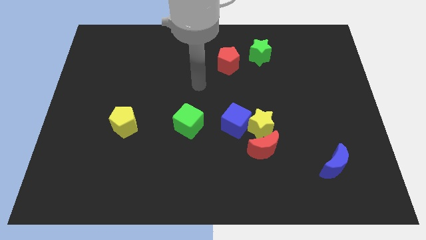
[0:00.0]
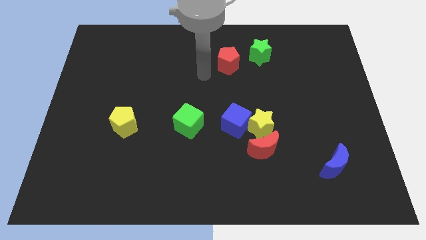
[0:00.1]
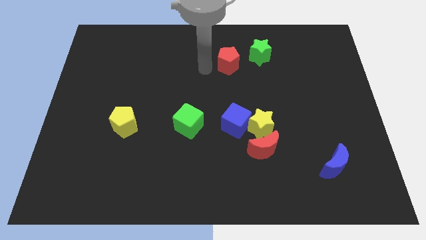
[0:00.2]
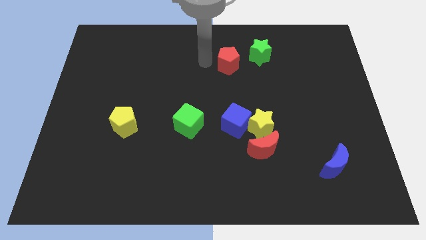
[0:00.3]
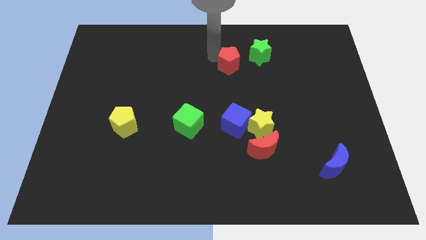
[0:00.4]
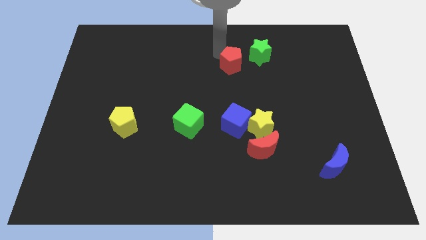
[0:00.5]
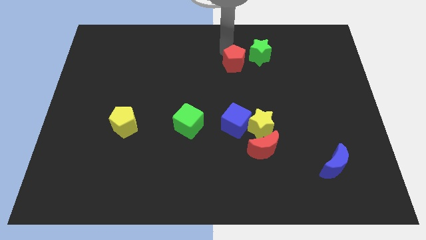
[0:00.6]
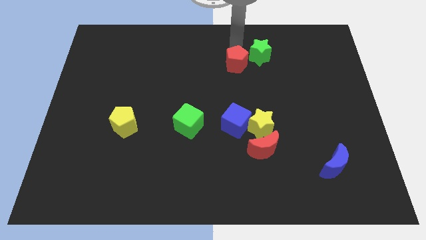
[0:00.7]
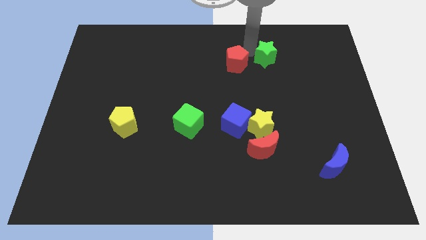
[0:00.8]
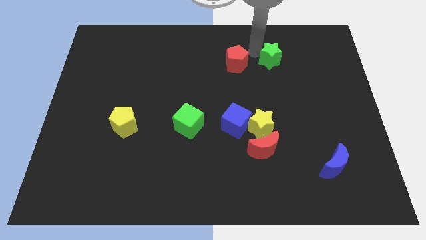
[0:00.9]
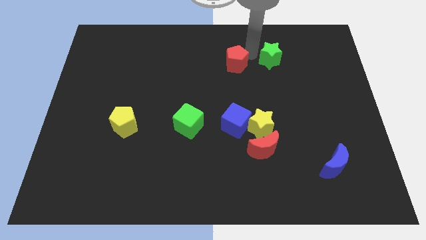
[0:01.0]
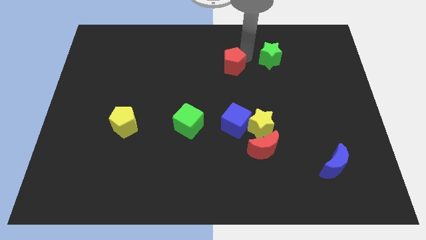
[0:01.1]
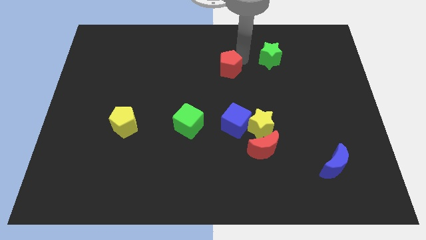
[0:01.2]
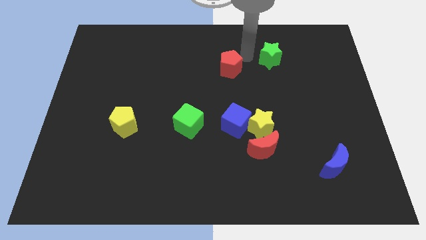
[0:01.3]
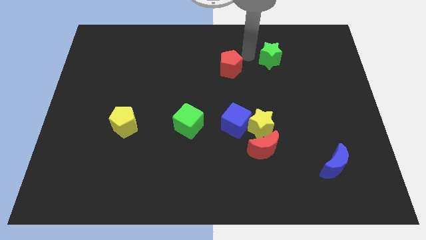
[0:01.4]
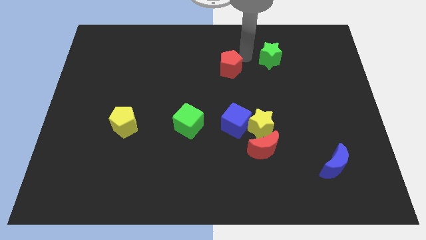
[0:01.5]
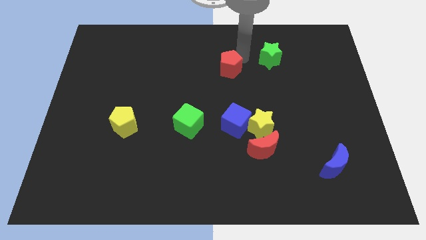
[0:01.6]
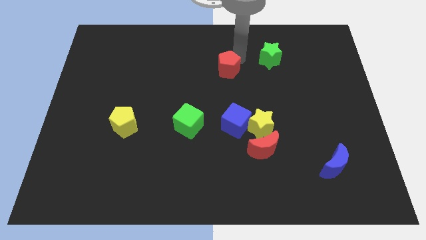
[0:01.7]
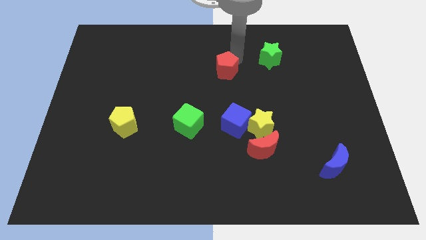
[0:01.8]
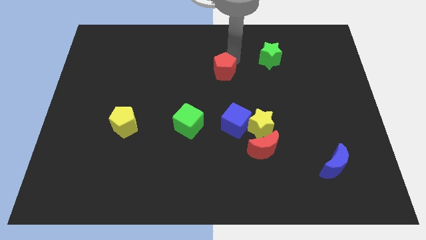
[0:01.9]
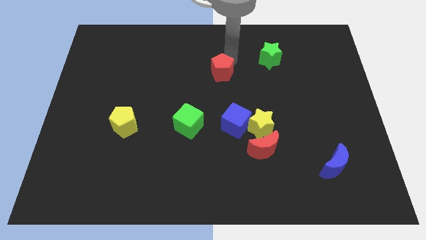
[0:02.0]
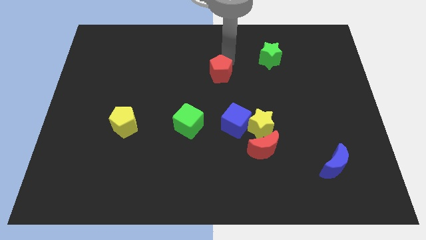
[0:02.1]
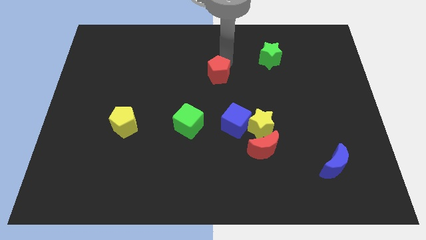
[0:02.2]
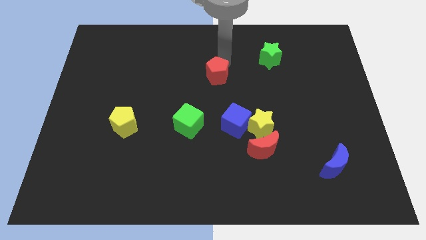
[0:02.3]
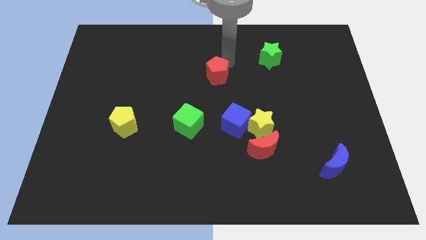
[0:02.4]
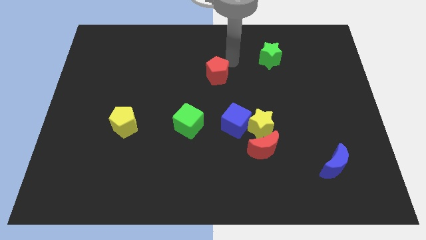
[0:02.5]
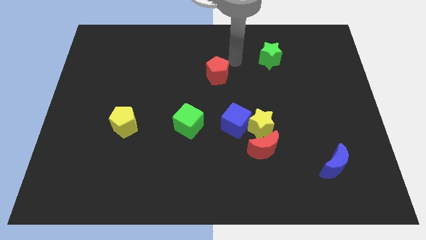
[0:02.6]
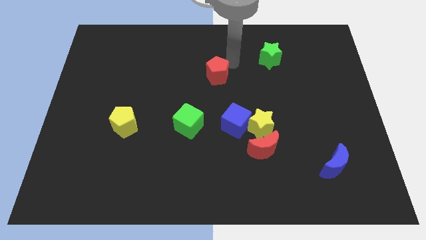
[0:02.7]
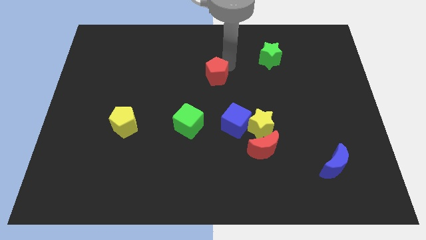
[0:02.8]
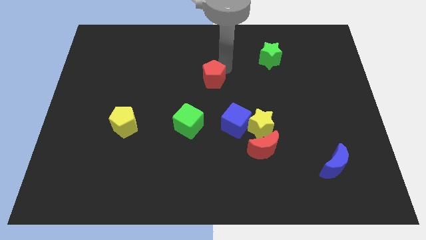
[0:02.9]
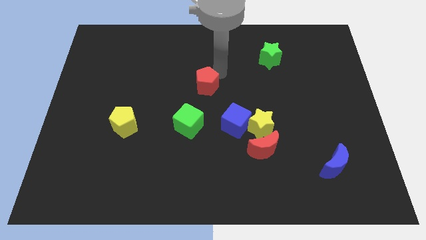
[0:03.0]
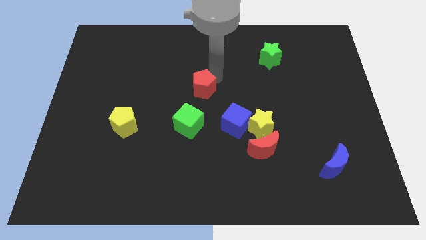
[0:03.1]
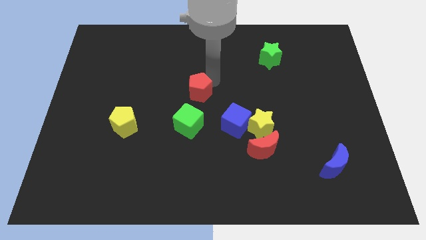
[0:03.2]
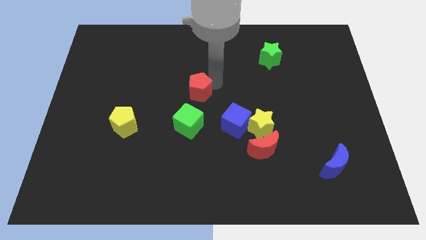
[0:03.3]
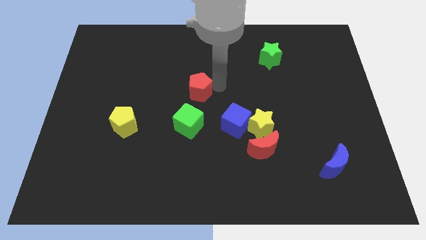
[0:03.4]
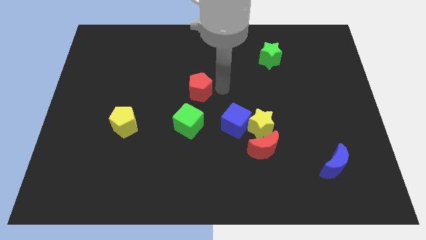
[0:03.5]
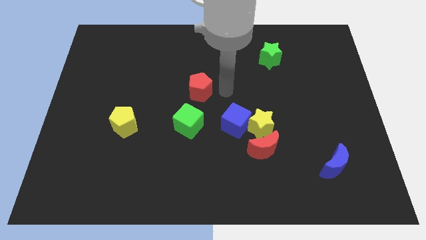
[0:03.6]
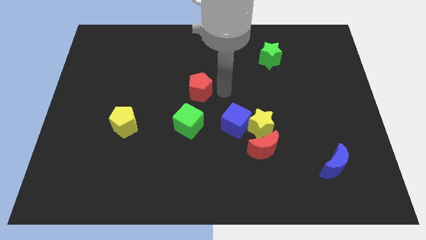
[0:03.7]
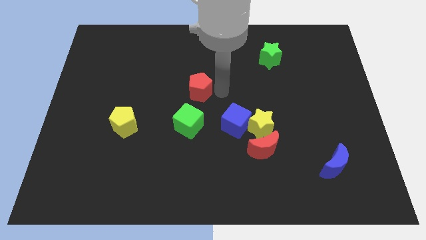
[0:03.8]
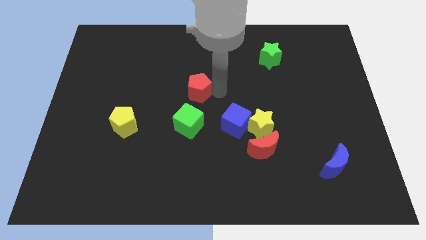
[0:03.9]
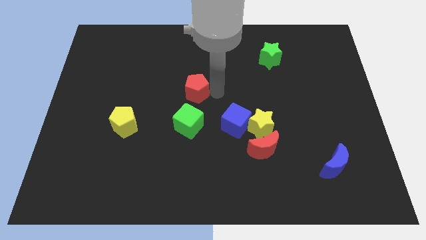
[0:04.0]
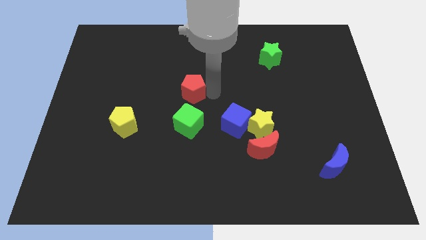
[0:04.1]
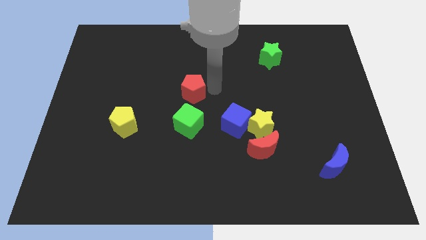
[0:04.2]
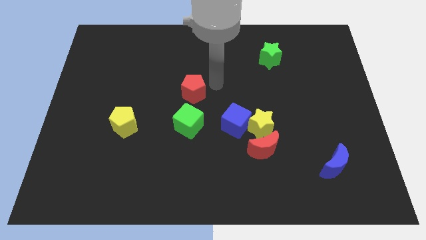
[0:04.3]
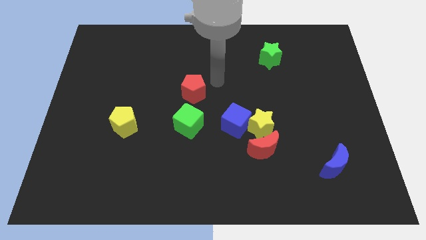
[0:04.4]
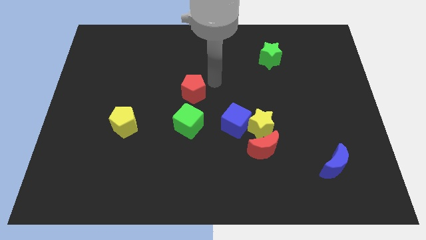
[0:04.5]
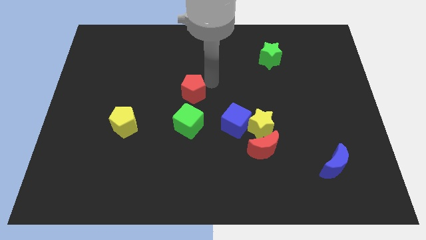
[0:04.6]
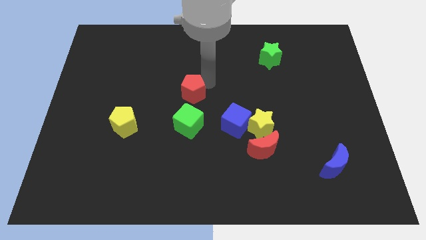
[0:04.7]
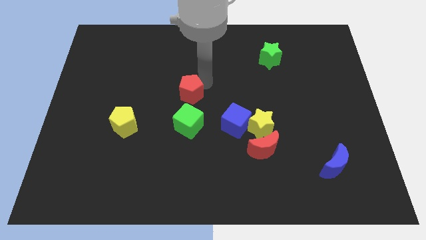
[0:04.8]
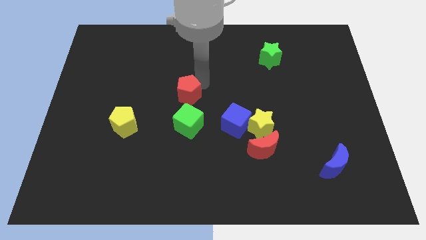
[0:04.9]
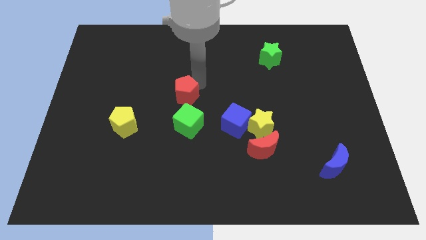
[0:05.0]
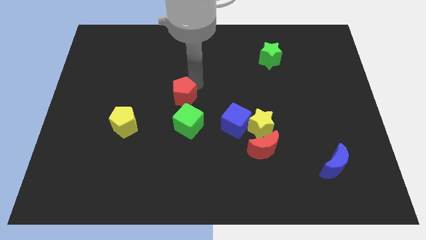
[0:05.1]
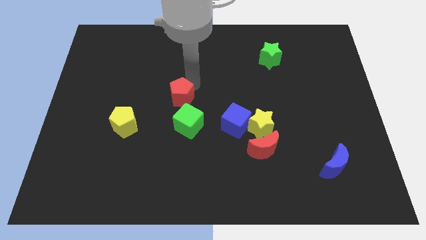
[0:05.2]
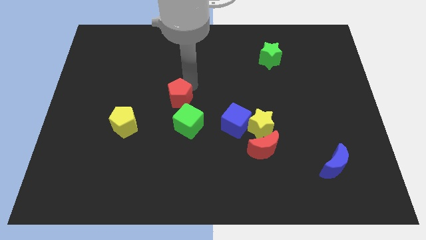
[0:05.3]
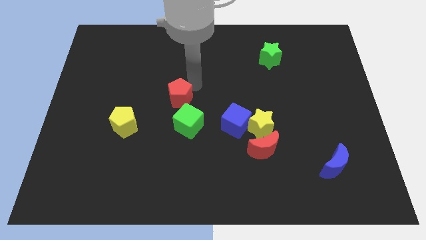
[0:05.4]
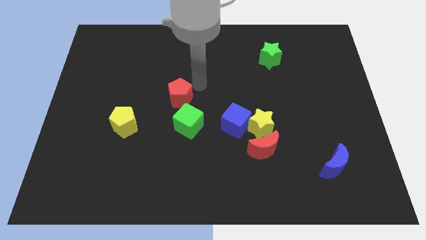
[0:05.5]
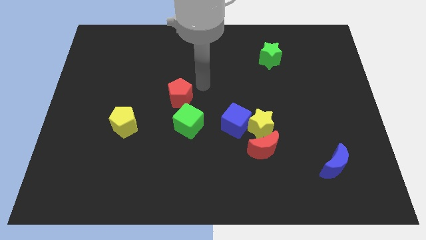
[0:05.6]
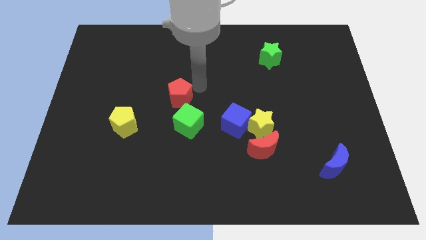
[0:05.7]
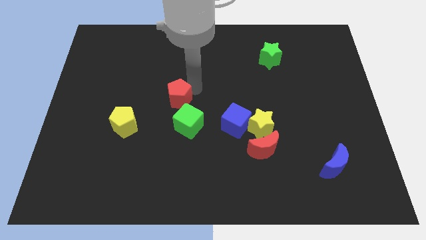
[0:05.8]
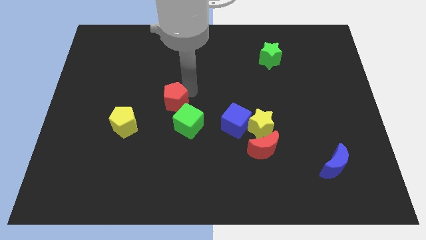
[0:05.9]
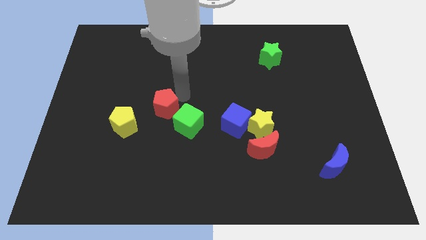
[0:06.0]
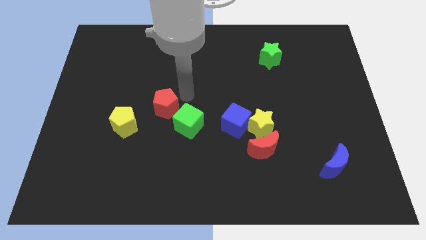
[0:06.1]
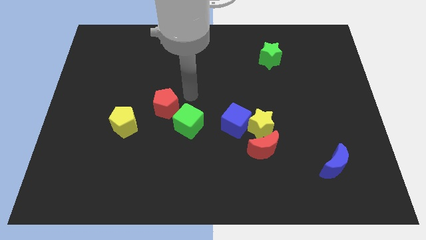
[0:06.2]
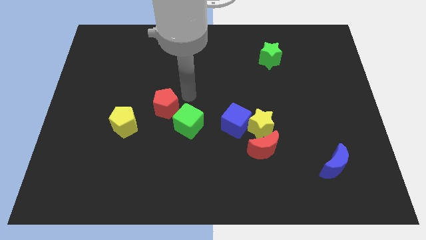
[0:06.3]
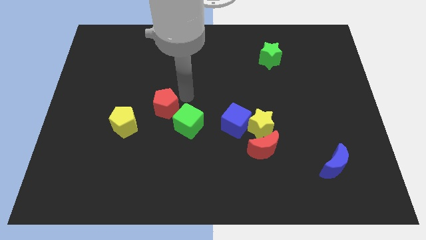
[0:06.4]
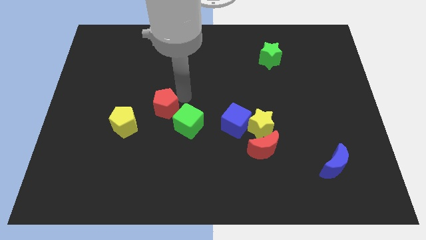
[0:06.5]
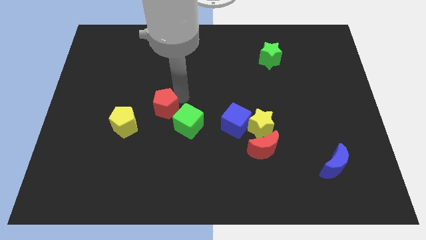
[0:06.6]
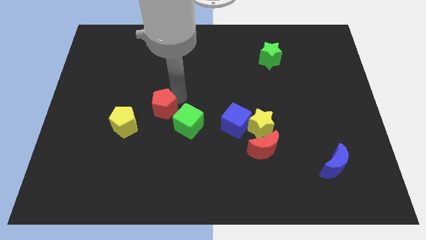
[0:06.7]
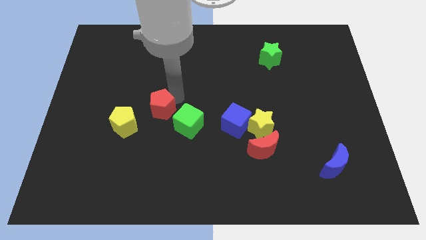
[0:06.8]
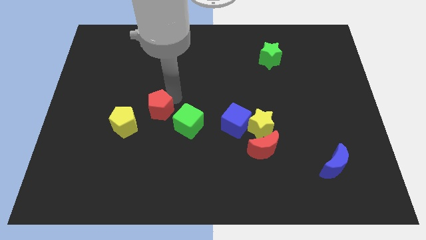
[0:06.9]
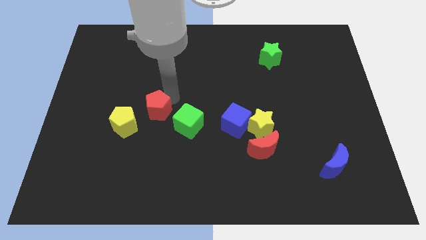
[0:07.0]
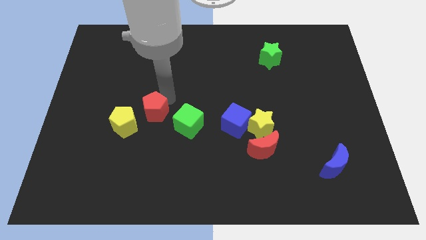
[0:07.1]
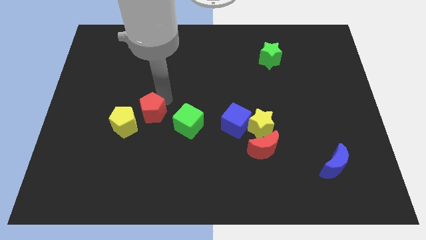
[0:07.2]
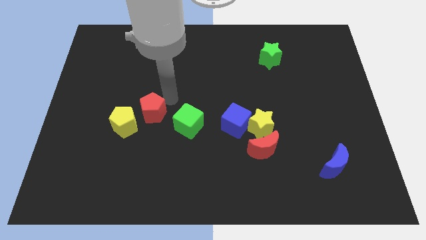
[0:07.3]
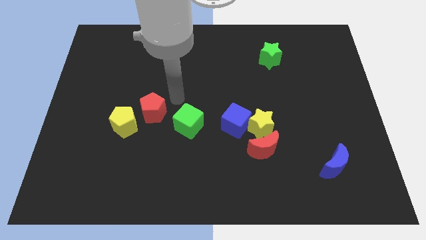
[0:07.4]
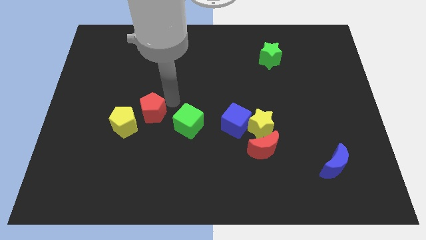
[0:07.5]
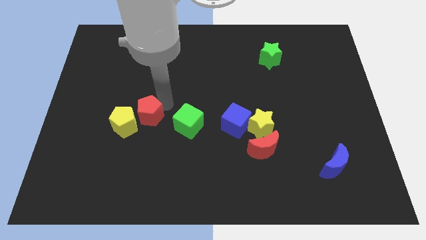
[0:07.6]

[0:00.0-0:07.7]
put the red pentagon towards the yellow pentagon

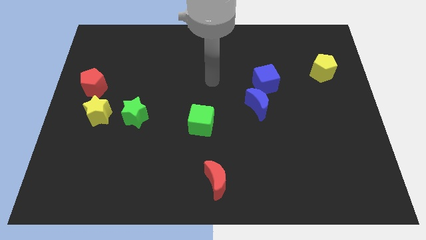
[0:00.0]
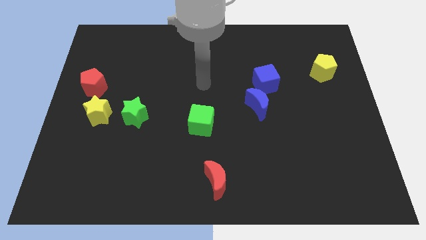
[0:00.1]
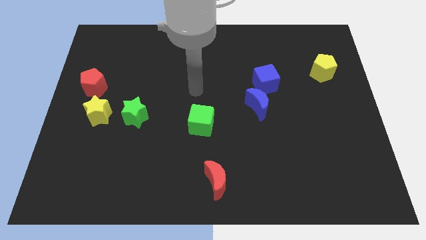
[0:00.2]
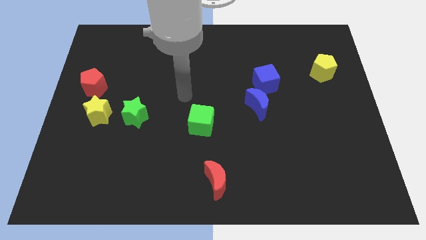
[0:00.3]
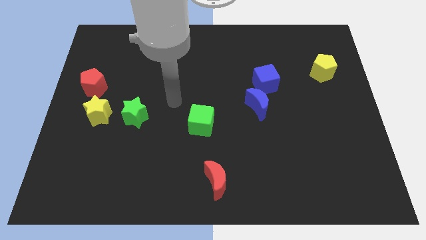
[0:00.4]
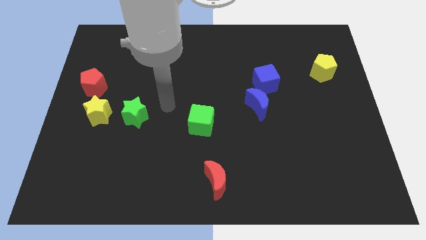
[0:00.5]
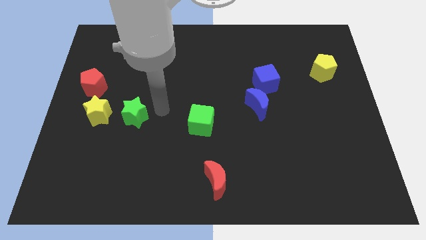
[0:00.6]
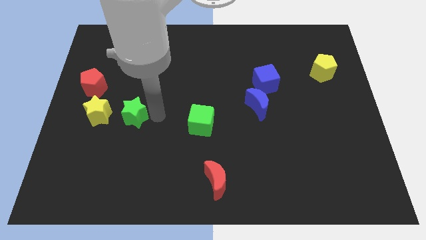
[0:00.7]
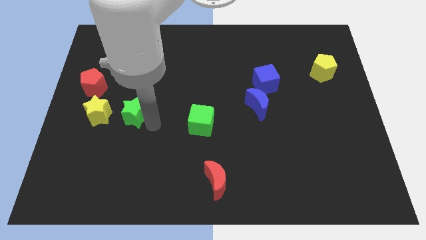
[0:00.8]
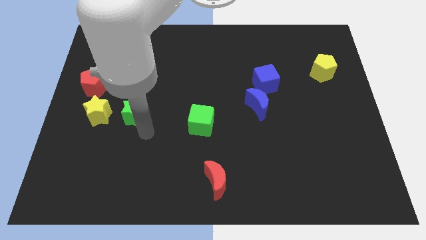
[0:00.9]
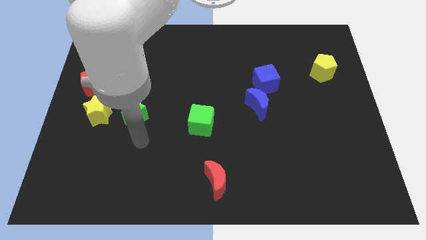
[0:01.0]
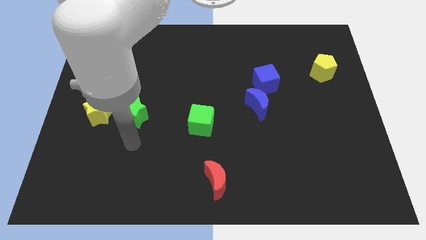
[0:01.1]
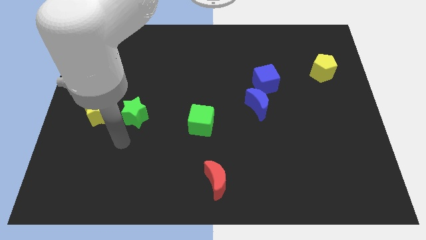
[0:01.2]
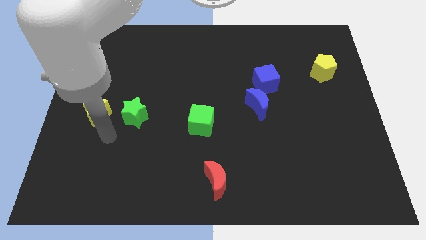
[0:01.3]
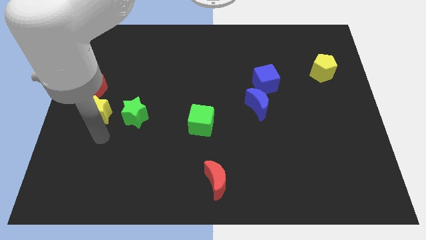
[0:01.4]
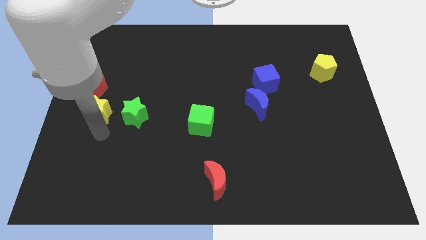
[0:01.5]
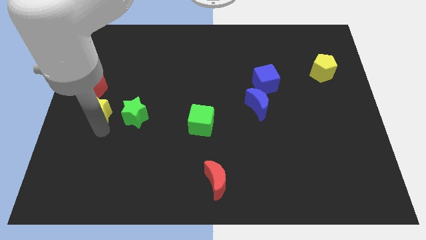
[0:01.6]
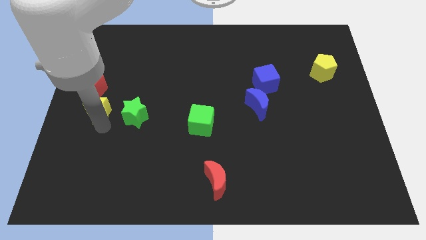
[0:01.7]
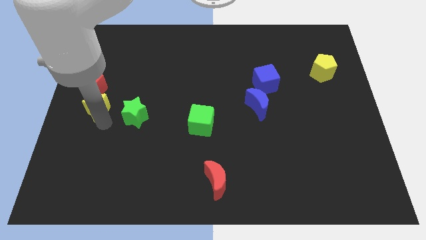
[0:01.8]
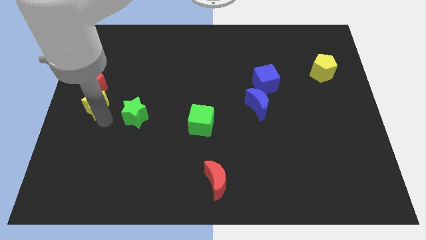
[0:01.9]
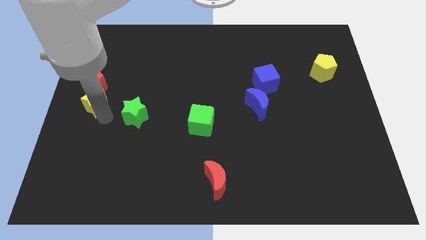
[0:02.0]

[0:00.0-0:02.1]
move the yellow star next to the red pentagon
